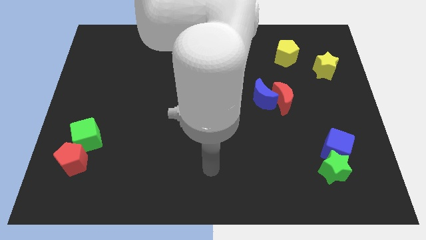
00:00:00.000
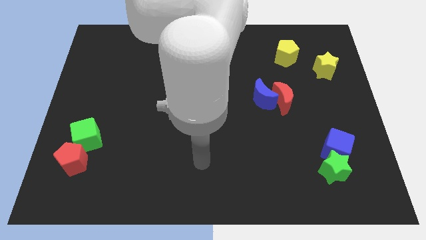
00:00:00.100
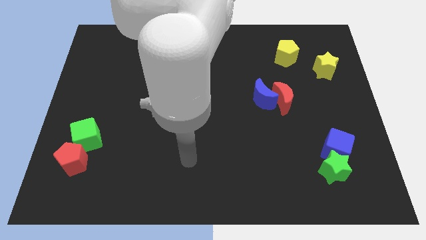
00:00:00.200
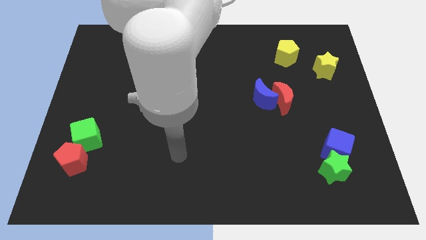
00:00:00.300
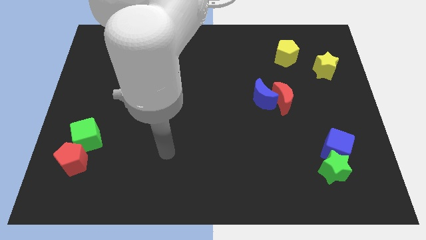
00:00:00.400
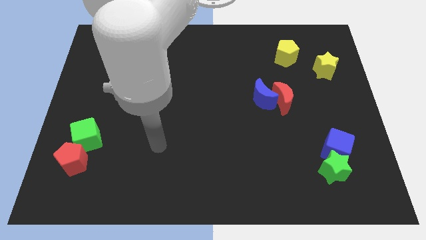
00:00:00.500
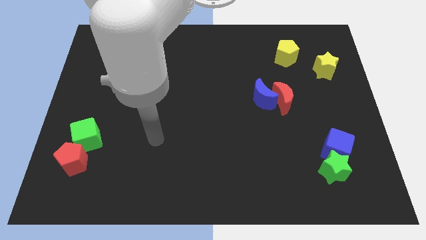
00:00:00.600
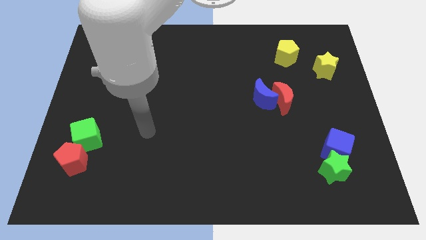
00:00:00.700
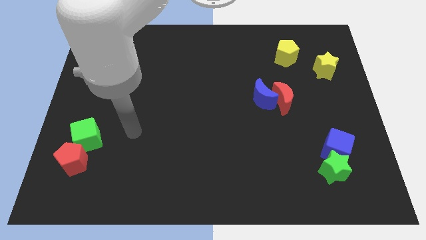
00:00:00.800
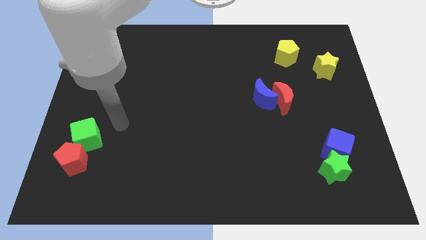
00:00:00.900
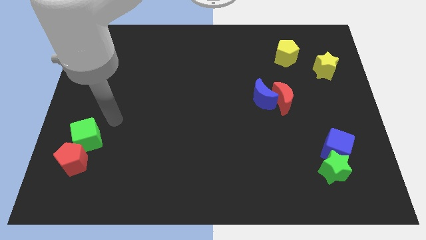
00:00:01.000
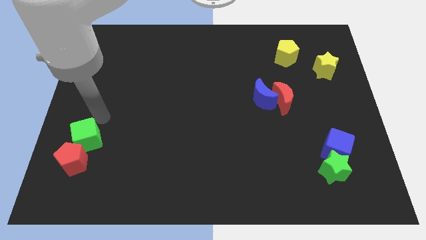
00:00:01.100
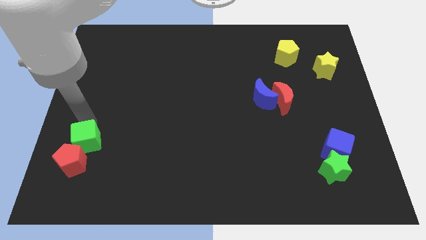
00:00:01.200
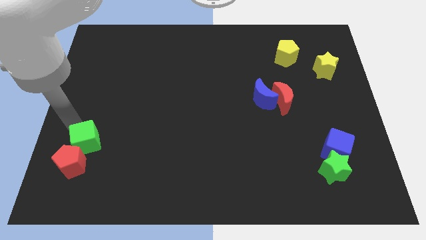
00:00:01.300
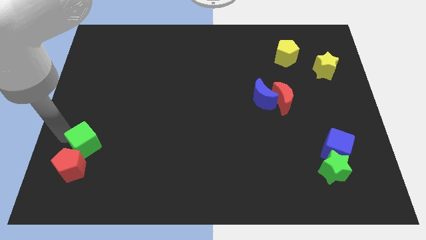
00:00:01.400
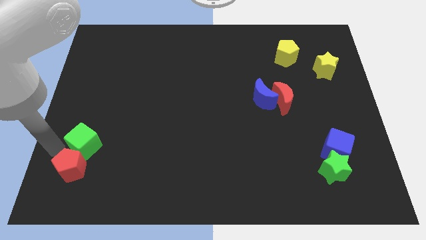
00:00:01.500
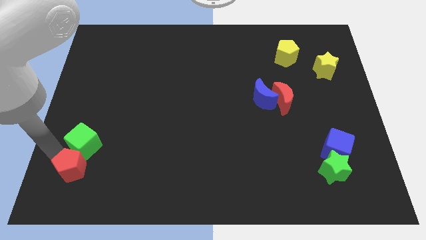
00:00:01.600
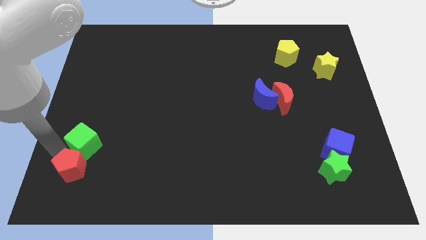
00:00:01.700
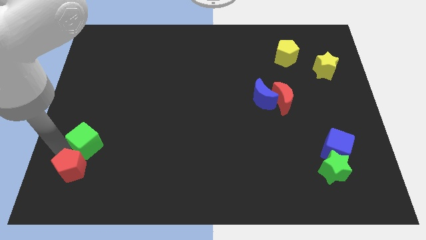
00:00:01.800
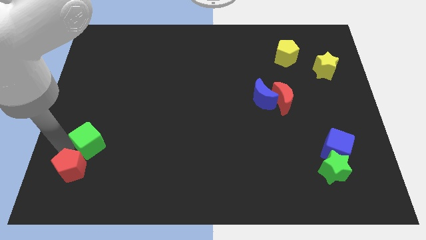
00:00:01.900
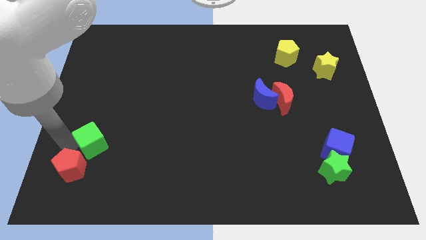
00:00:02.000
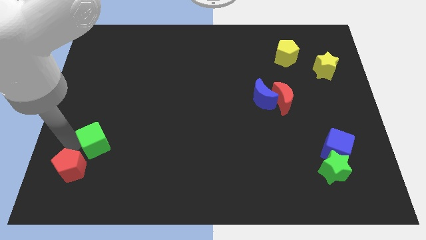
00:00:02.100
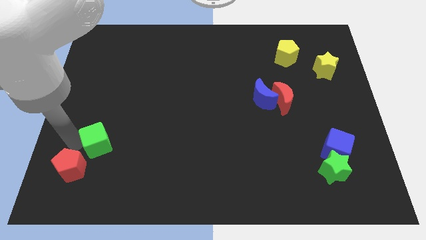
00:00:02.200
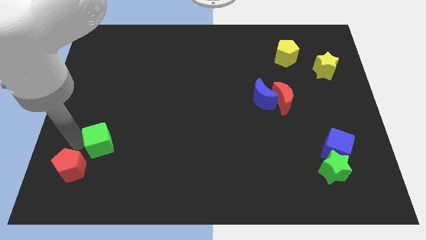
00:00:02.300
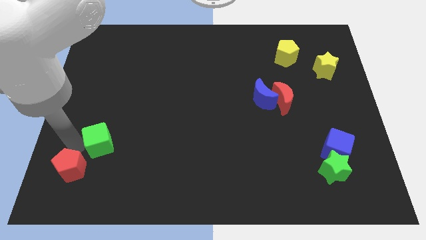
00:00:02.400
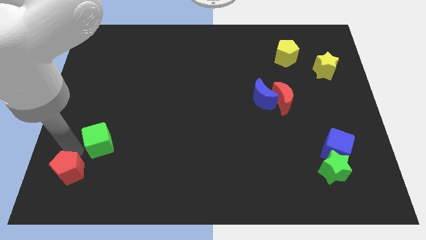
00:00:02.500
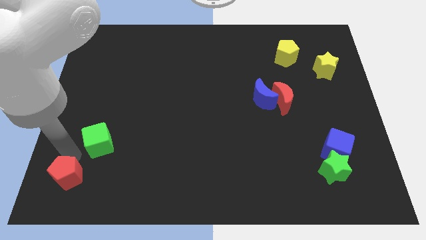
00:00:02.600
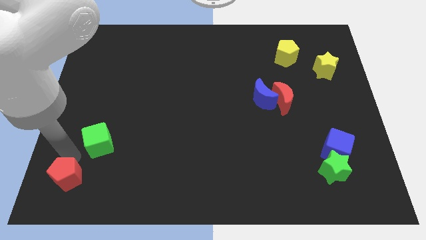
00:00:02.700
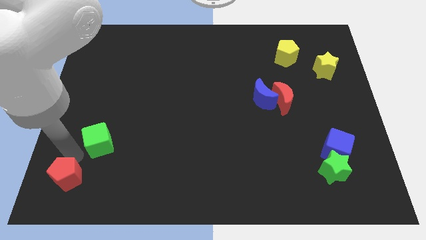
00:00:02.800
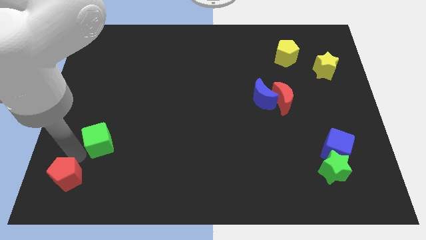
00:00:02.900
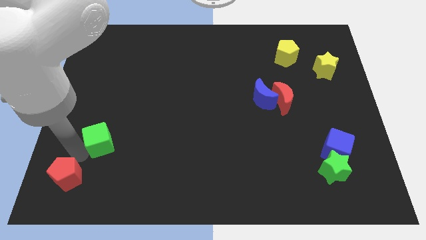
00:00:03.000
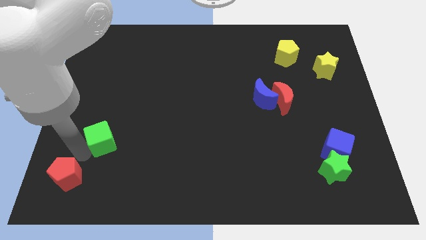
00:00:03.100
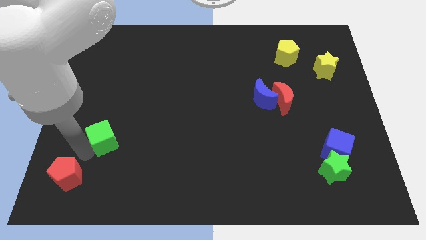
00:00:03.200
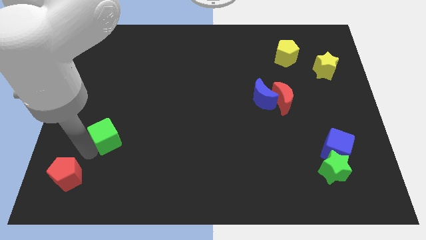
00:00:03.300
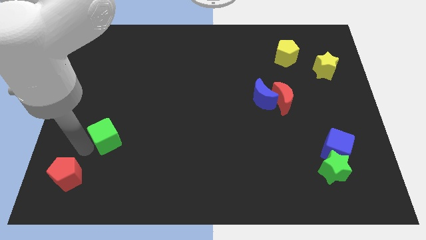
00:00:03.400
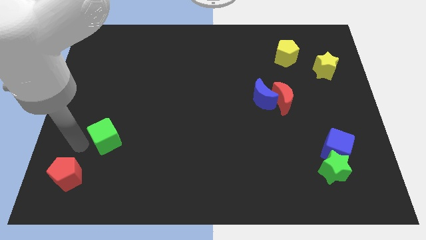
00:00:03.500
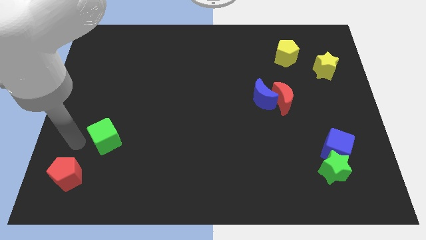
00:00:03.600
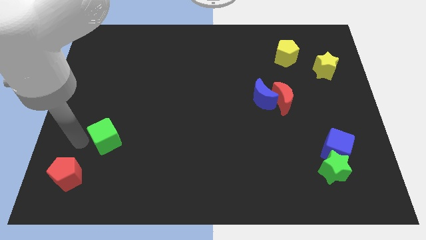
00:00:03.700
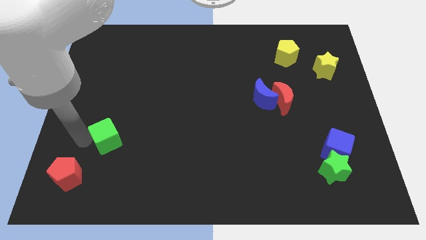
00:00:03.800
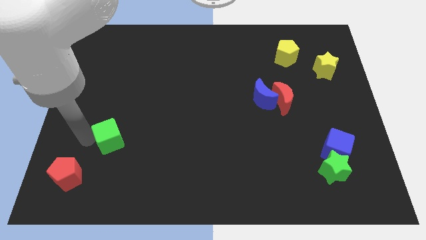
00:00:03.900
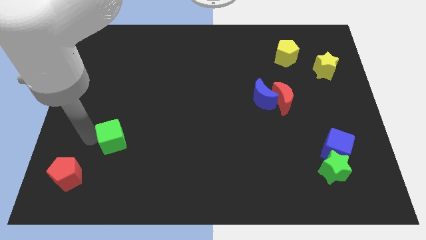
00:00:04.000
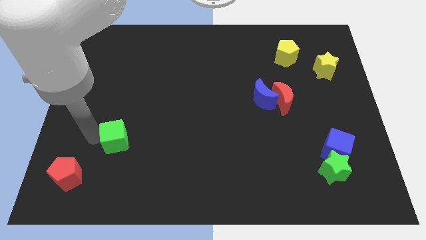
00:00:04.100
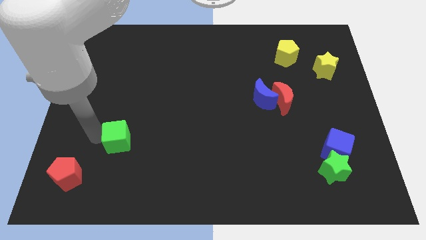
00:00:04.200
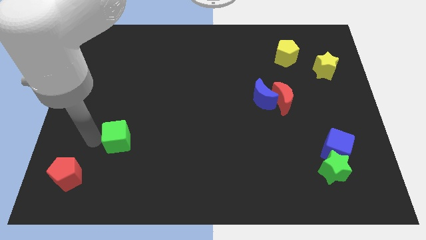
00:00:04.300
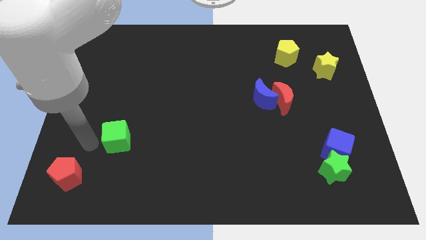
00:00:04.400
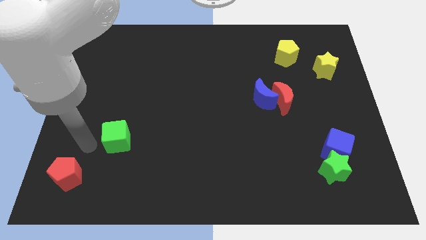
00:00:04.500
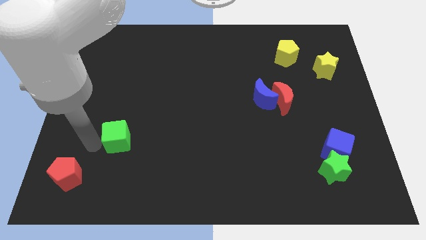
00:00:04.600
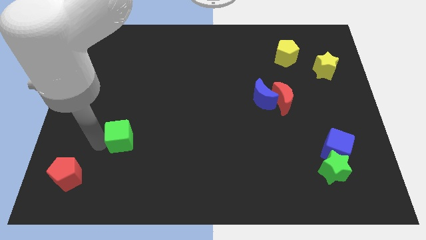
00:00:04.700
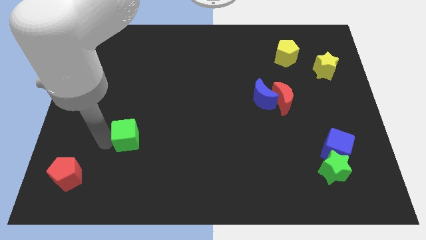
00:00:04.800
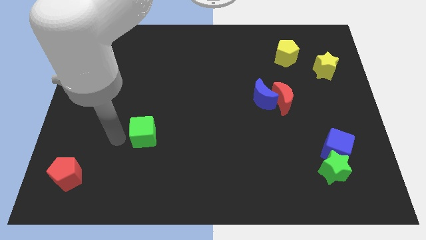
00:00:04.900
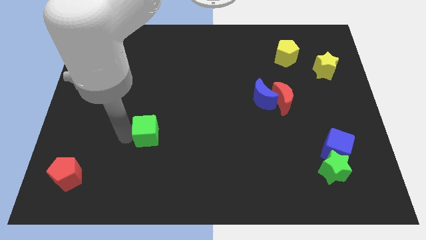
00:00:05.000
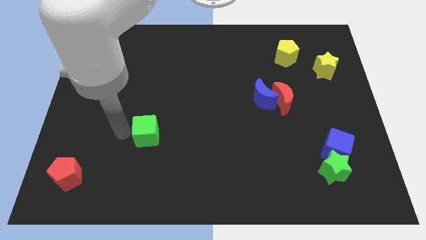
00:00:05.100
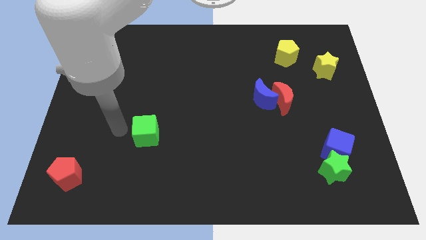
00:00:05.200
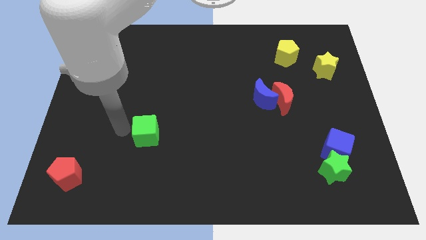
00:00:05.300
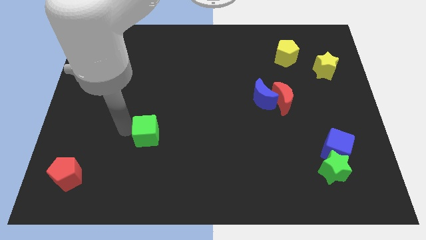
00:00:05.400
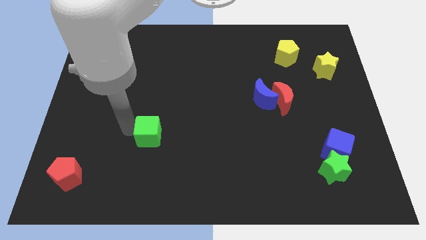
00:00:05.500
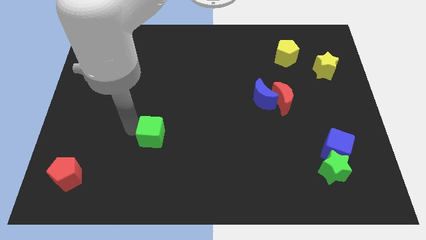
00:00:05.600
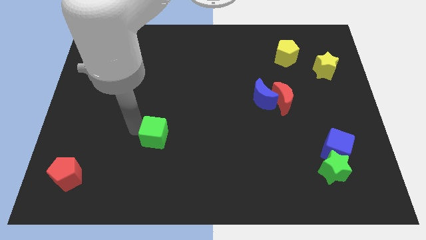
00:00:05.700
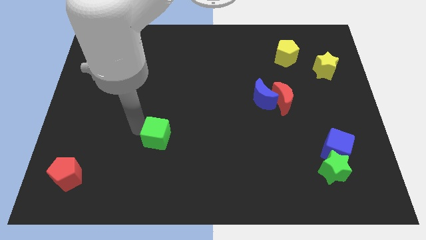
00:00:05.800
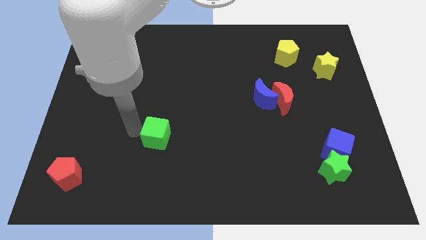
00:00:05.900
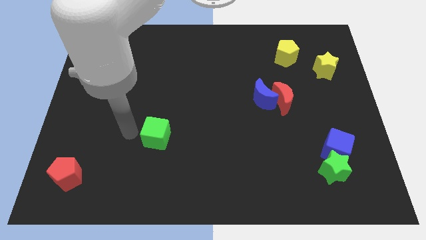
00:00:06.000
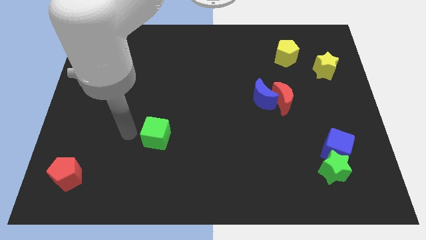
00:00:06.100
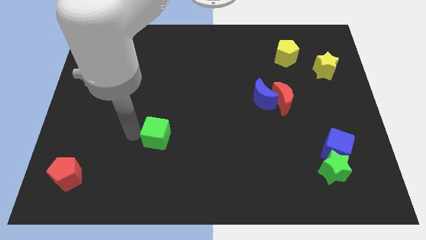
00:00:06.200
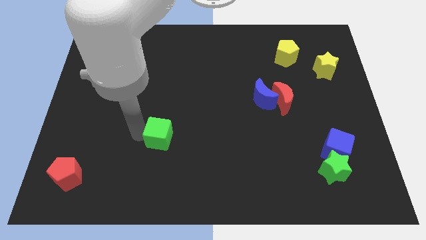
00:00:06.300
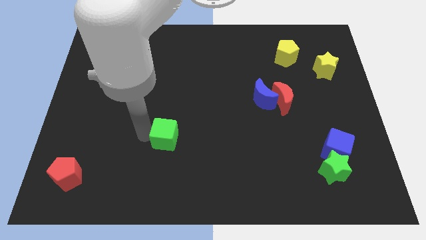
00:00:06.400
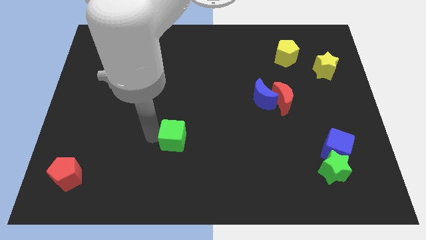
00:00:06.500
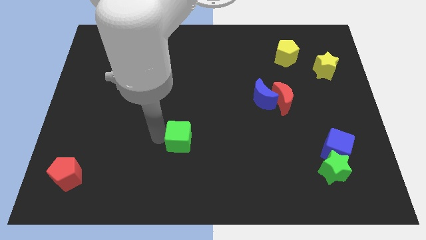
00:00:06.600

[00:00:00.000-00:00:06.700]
move the green cube right

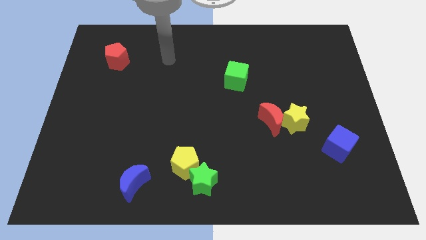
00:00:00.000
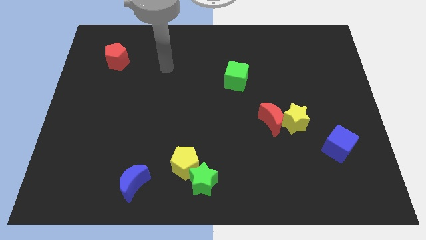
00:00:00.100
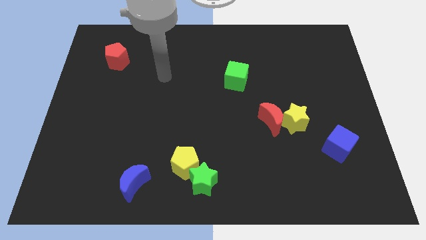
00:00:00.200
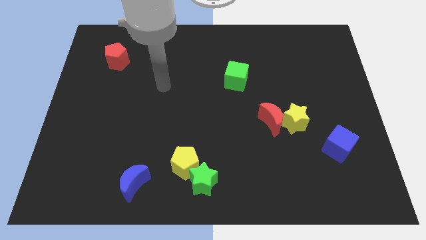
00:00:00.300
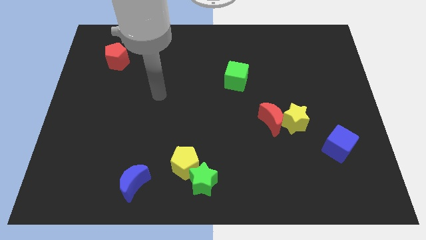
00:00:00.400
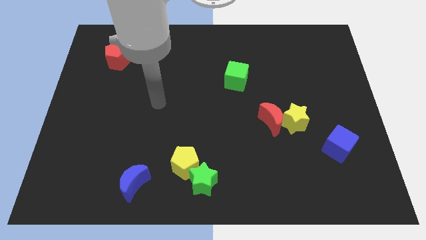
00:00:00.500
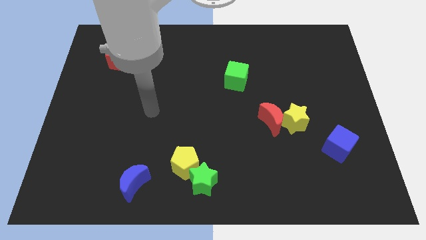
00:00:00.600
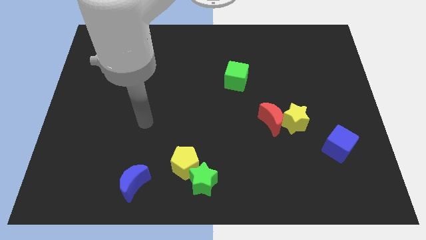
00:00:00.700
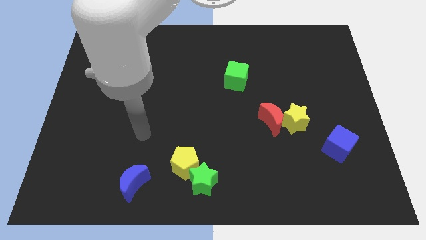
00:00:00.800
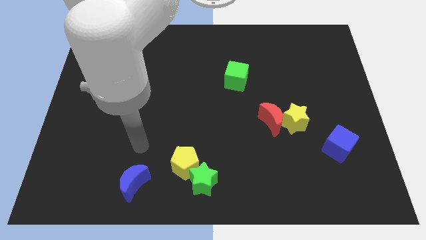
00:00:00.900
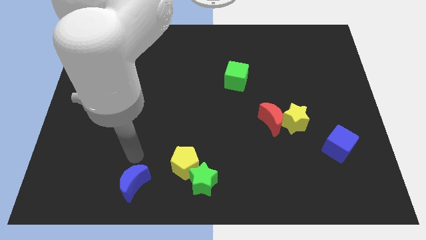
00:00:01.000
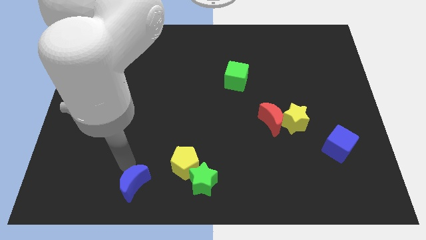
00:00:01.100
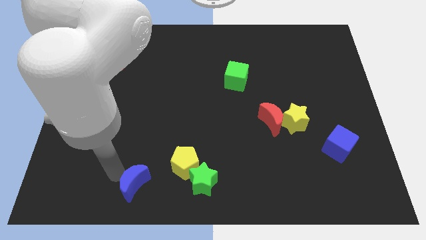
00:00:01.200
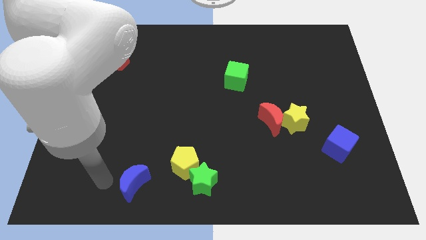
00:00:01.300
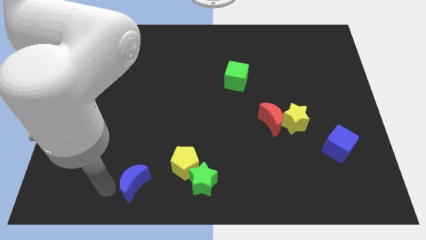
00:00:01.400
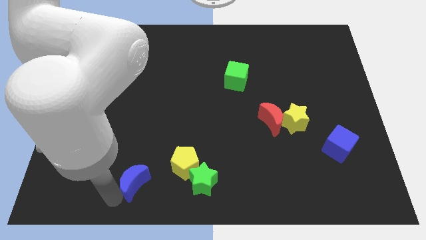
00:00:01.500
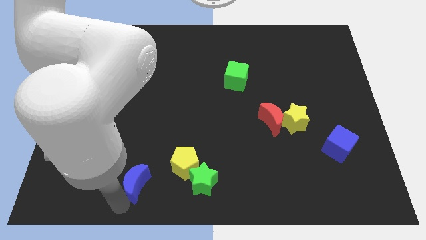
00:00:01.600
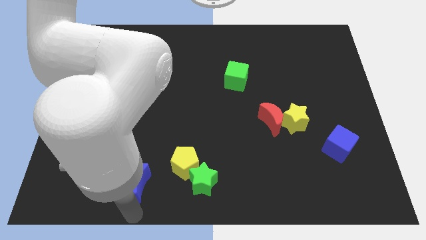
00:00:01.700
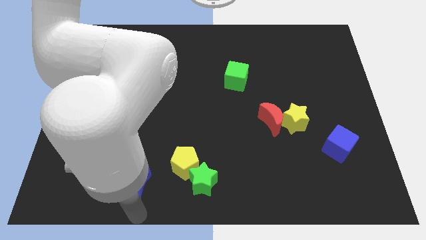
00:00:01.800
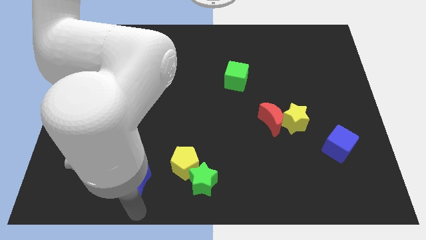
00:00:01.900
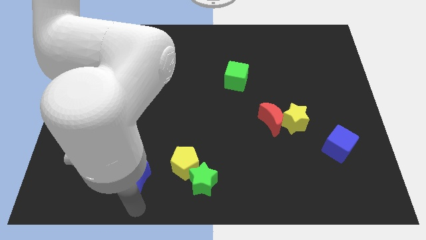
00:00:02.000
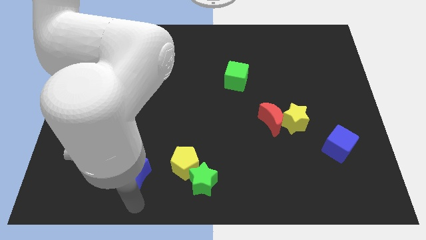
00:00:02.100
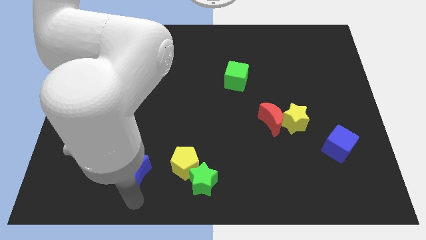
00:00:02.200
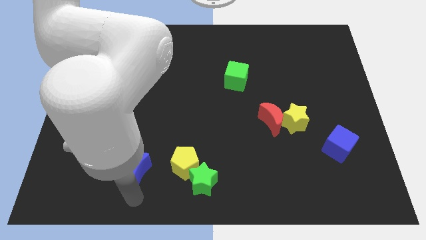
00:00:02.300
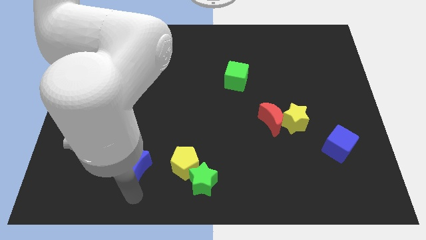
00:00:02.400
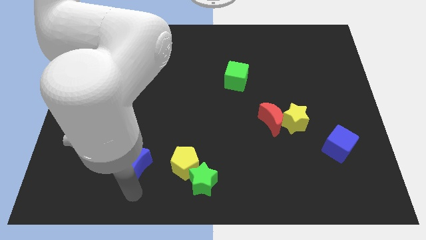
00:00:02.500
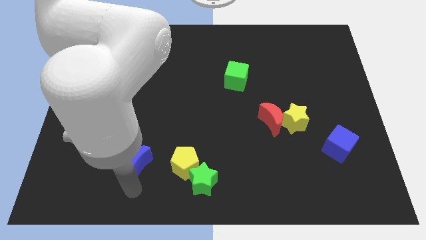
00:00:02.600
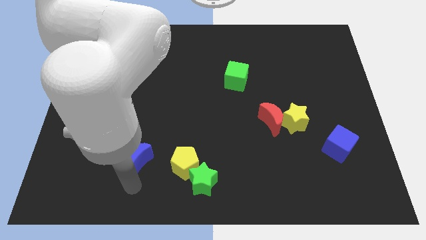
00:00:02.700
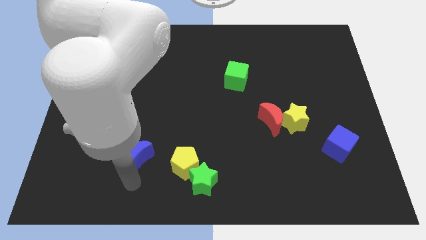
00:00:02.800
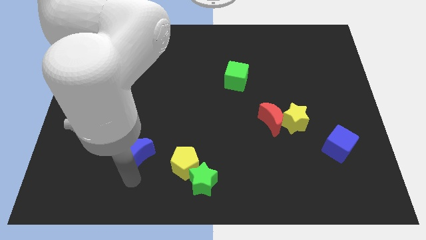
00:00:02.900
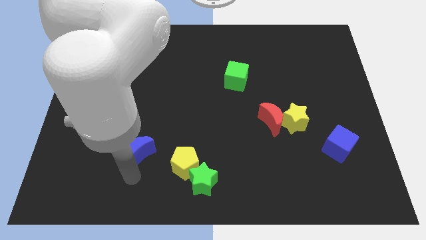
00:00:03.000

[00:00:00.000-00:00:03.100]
slide the blue moon a little bit upwards
